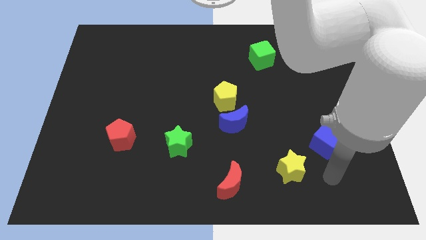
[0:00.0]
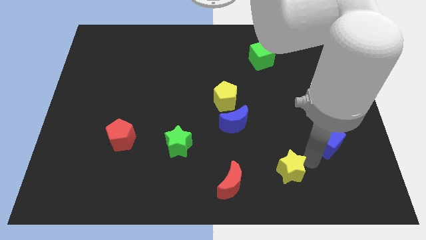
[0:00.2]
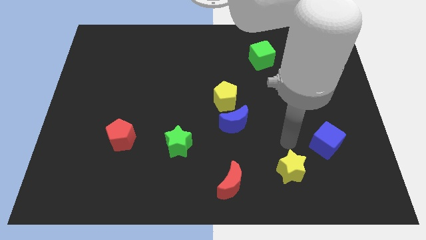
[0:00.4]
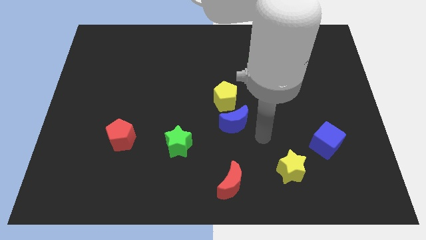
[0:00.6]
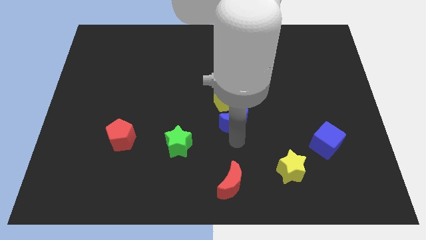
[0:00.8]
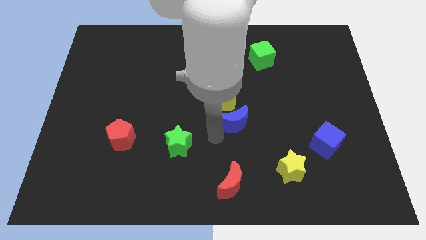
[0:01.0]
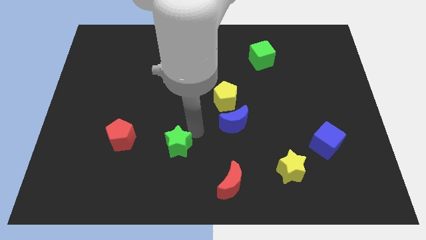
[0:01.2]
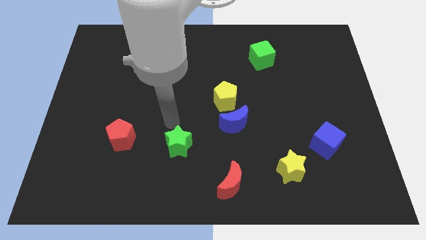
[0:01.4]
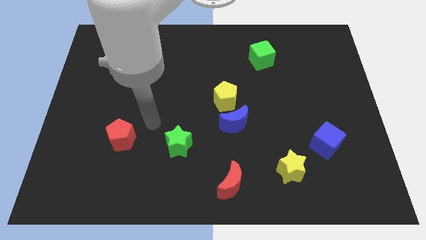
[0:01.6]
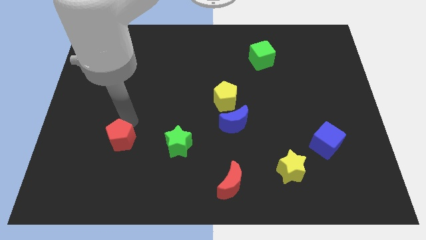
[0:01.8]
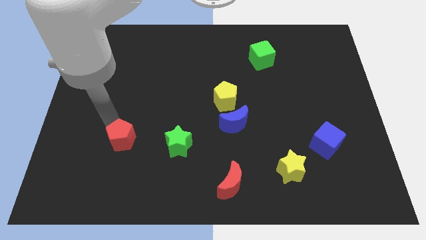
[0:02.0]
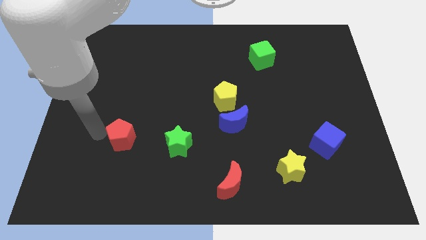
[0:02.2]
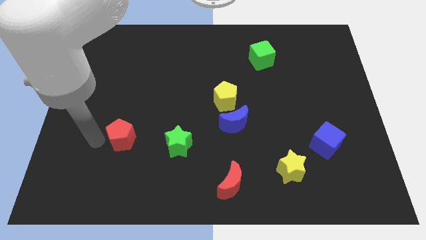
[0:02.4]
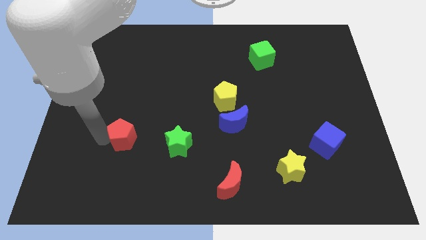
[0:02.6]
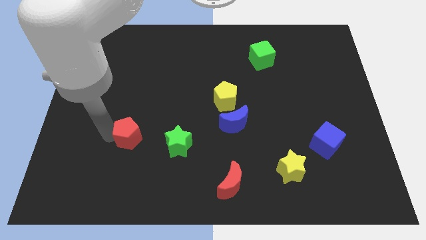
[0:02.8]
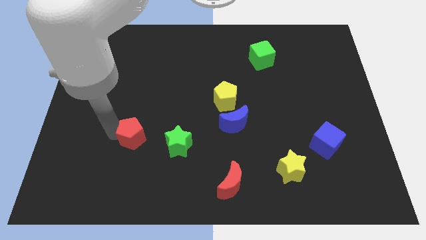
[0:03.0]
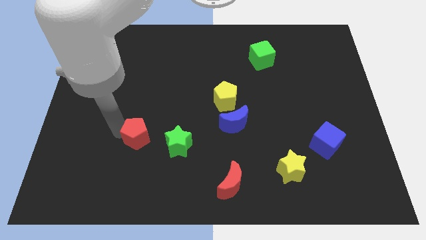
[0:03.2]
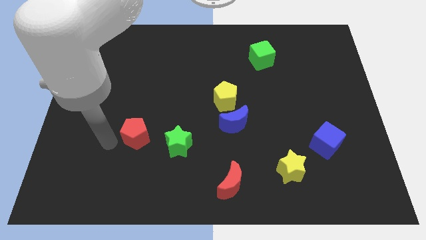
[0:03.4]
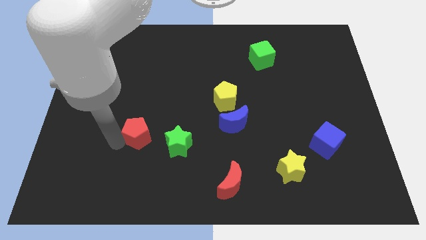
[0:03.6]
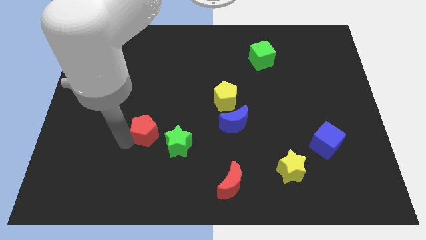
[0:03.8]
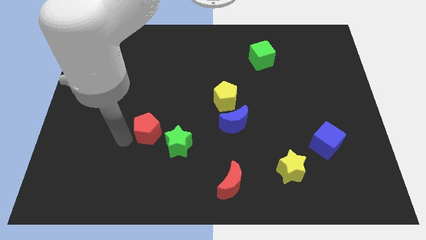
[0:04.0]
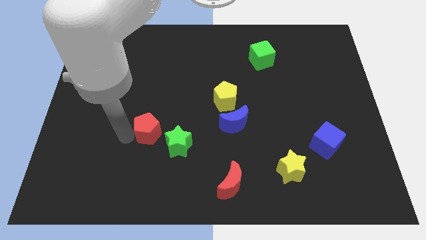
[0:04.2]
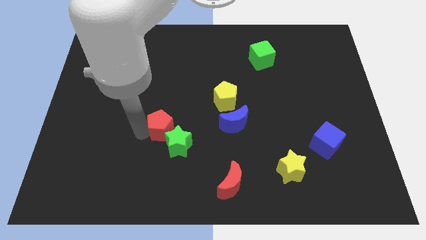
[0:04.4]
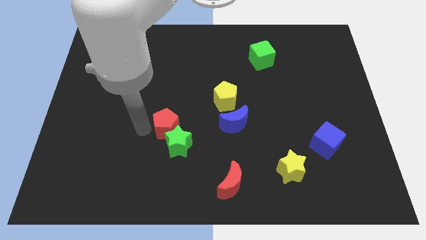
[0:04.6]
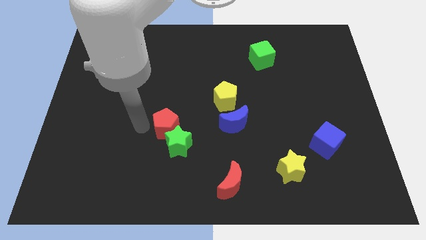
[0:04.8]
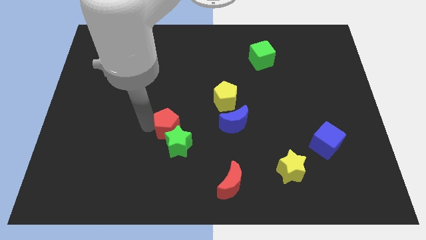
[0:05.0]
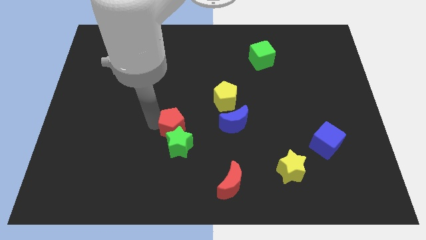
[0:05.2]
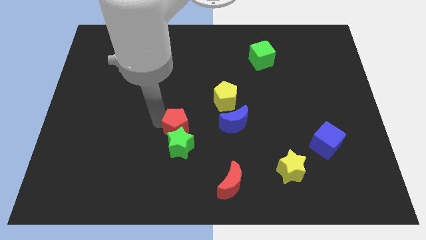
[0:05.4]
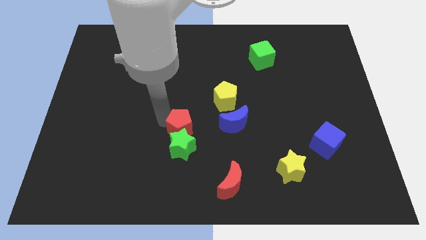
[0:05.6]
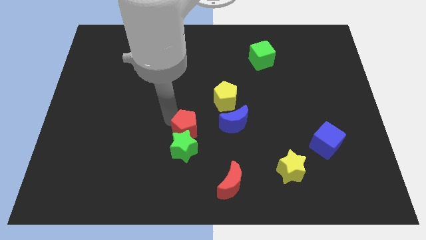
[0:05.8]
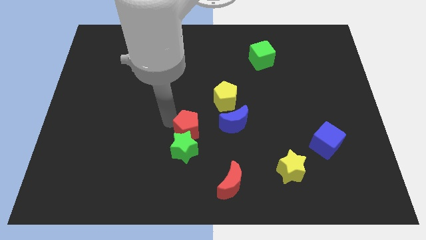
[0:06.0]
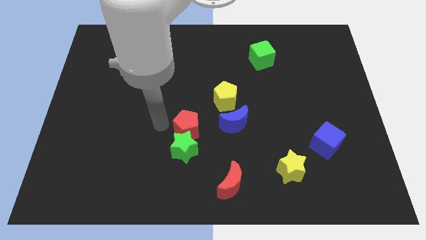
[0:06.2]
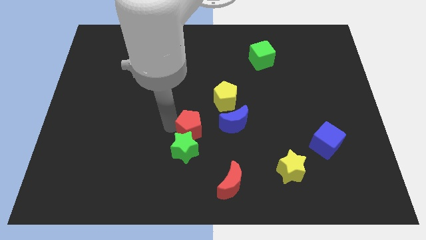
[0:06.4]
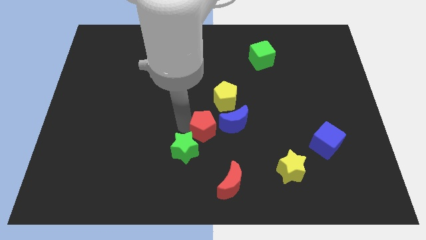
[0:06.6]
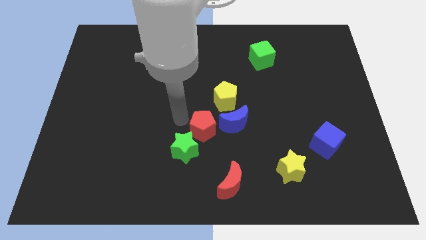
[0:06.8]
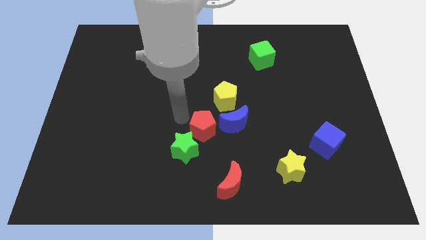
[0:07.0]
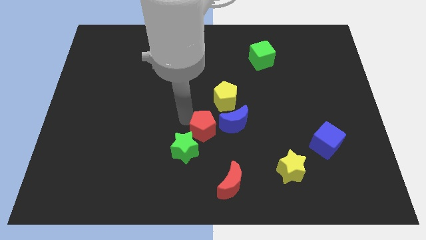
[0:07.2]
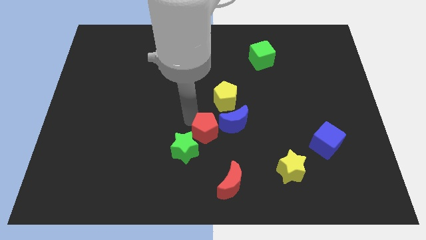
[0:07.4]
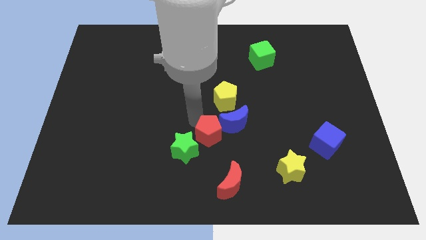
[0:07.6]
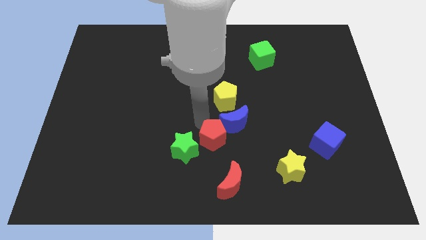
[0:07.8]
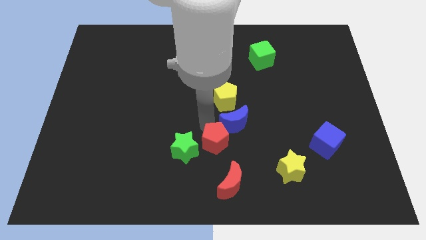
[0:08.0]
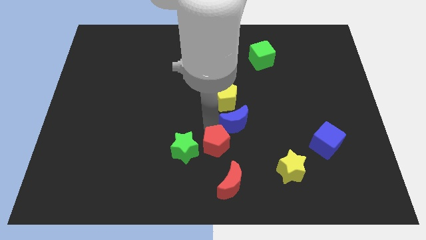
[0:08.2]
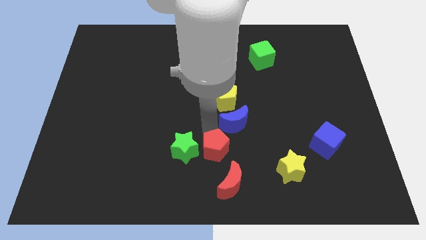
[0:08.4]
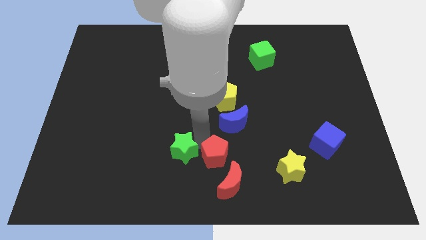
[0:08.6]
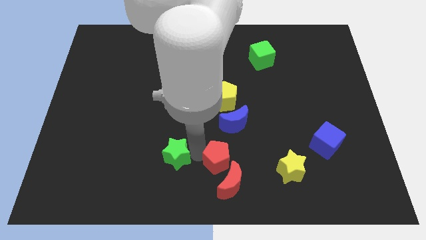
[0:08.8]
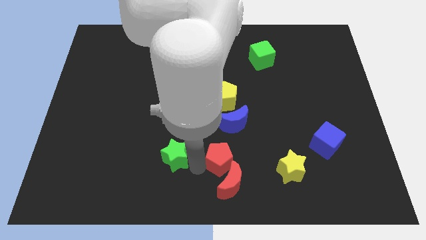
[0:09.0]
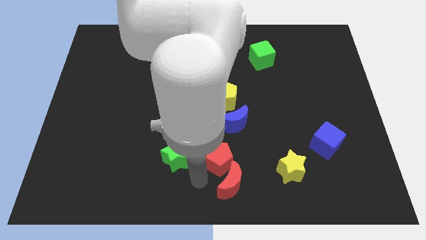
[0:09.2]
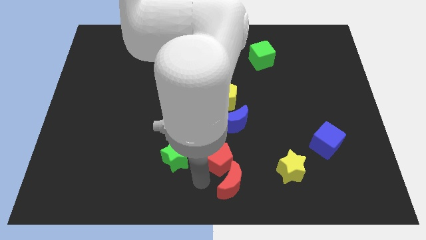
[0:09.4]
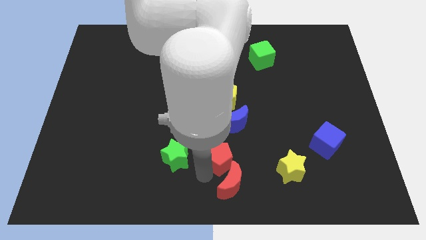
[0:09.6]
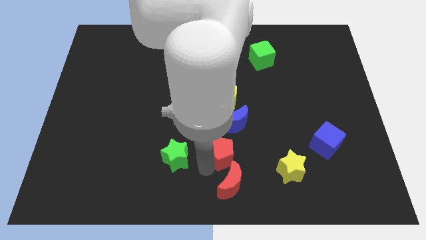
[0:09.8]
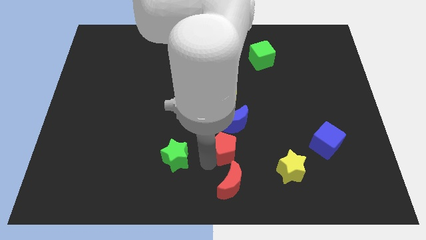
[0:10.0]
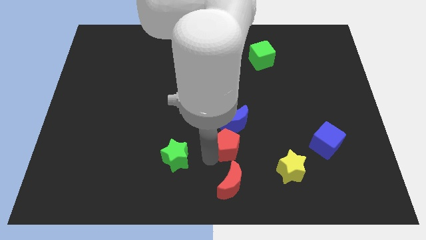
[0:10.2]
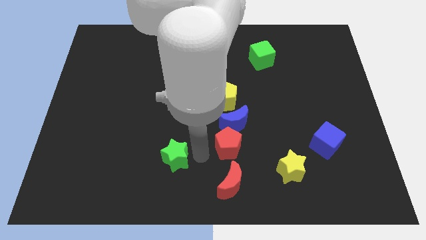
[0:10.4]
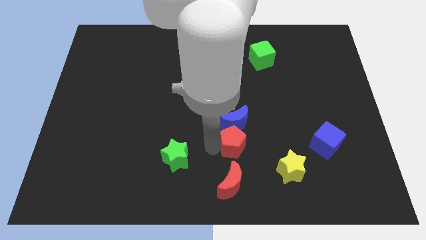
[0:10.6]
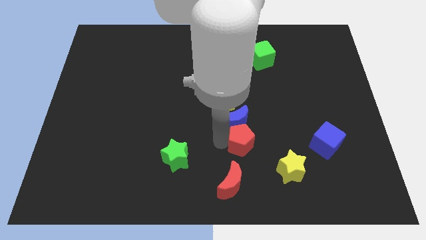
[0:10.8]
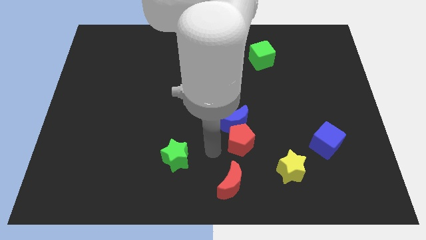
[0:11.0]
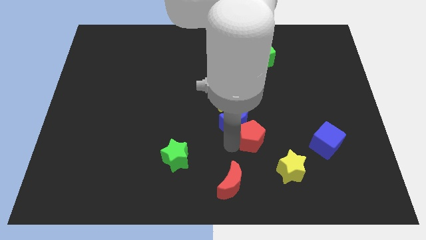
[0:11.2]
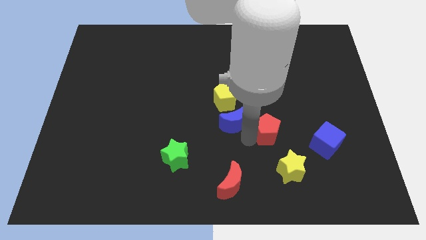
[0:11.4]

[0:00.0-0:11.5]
push the red pentagon to the top side of the yellow star

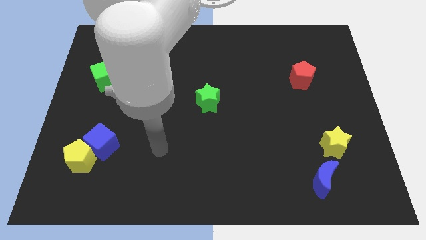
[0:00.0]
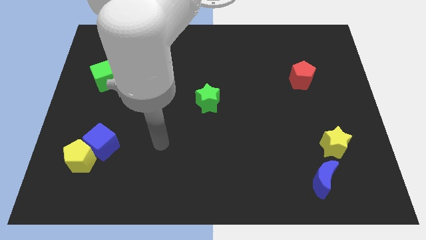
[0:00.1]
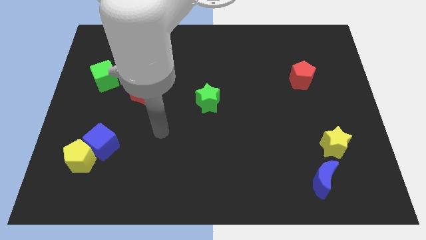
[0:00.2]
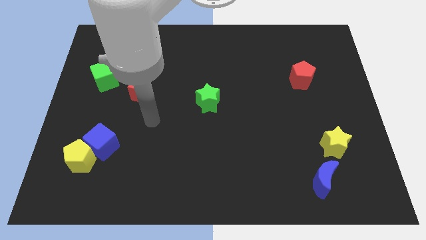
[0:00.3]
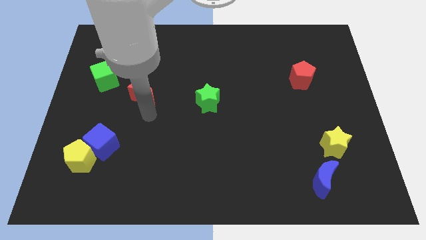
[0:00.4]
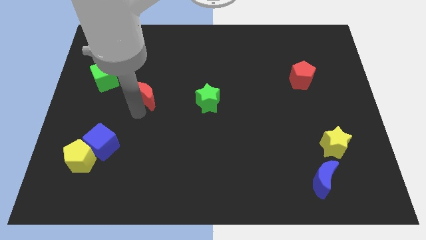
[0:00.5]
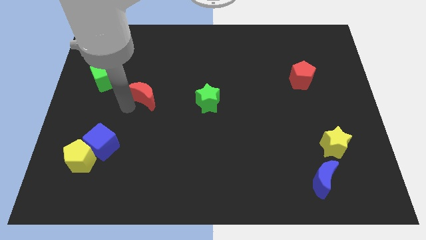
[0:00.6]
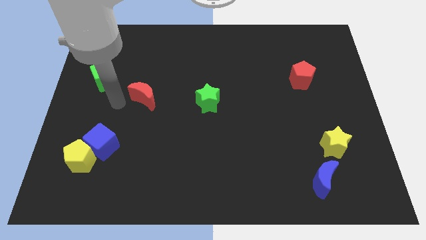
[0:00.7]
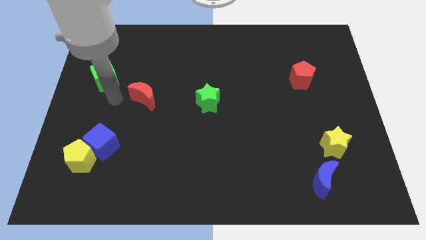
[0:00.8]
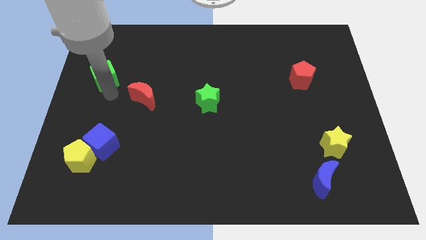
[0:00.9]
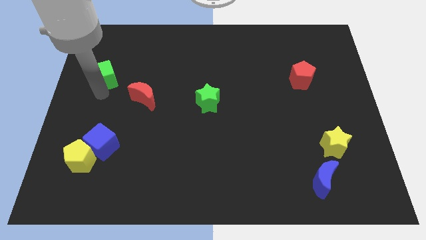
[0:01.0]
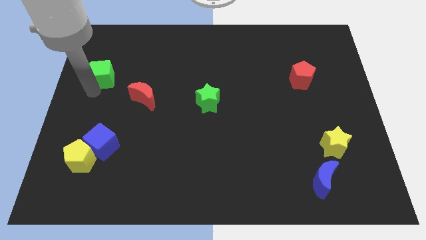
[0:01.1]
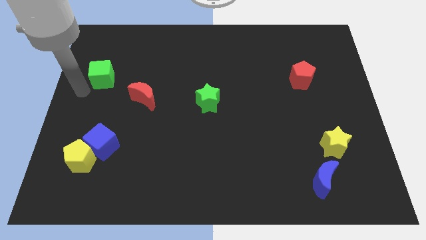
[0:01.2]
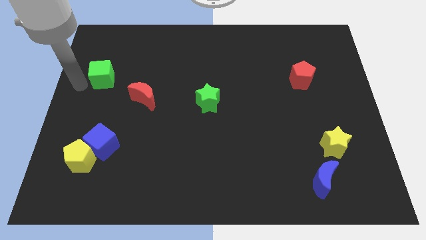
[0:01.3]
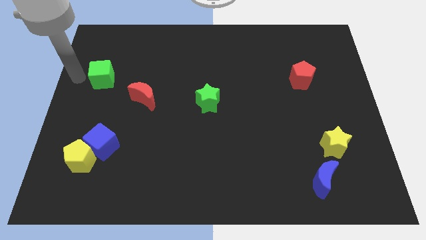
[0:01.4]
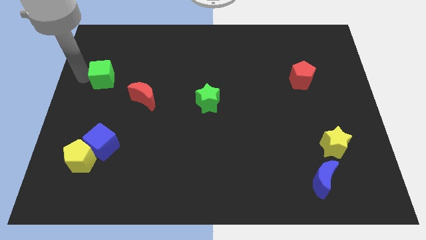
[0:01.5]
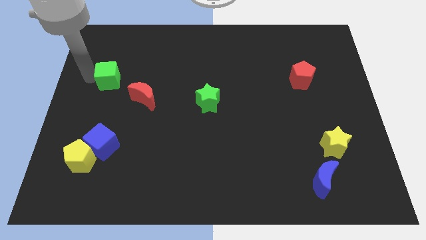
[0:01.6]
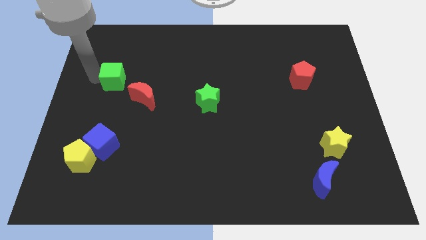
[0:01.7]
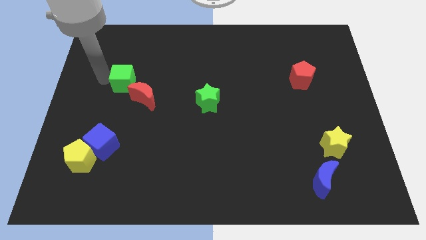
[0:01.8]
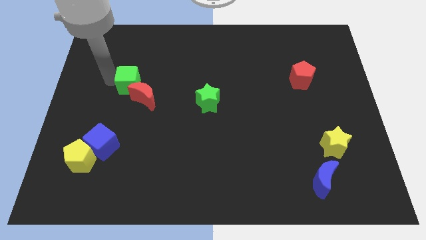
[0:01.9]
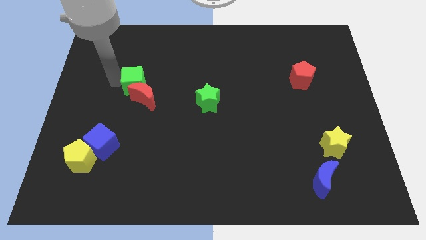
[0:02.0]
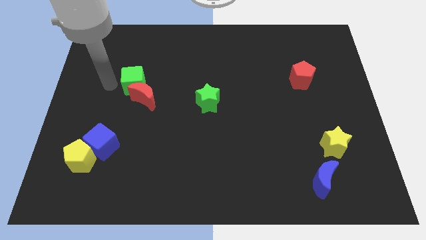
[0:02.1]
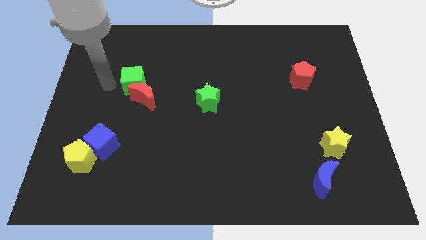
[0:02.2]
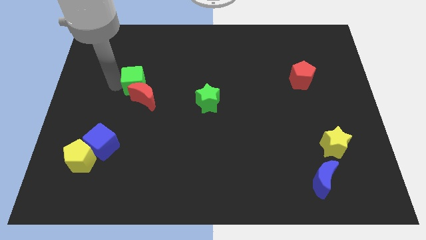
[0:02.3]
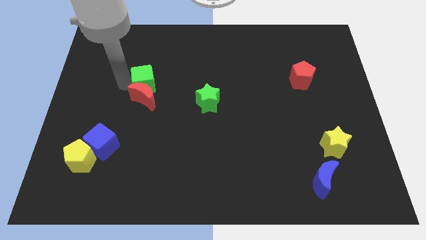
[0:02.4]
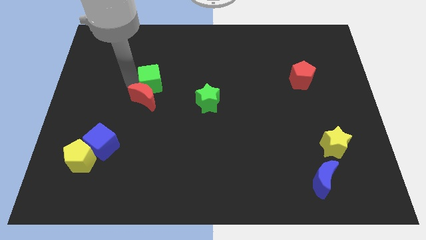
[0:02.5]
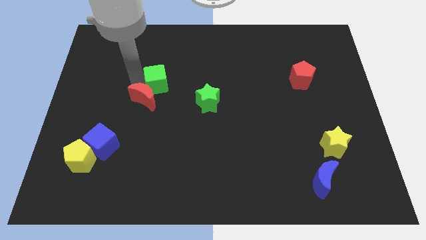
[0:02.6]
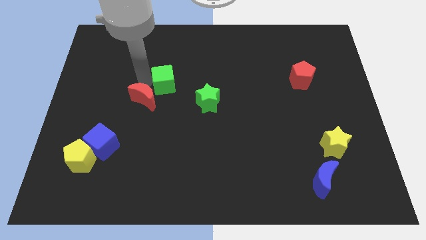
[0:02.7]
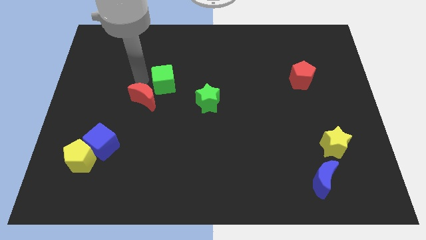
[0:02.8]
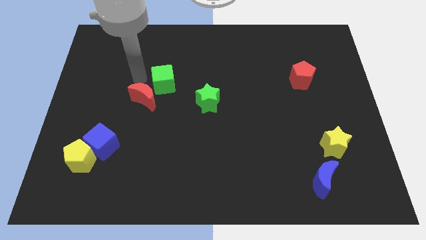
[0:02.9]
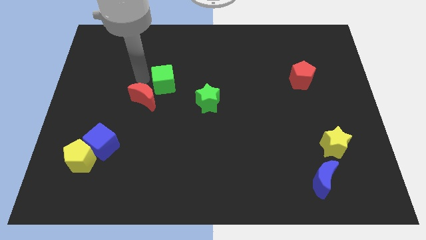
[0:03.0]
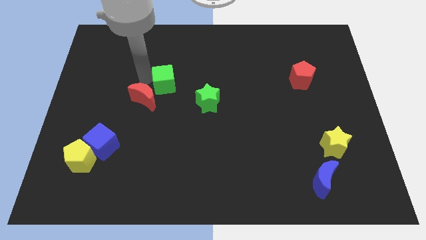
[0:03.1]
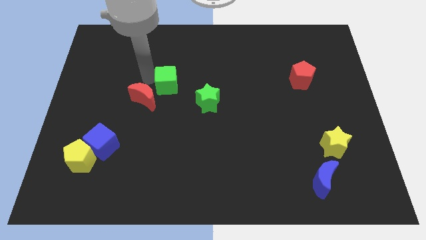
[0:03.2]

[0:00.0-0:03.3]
move the green cube diagonally up and to the left of the green star
